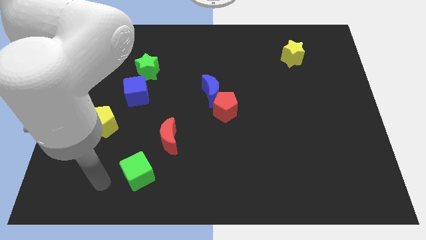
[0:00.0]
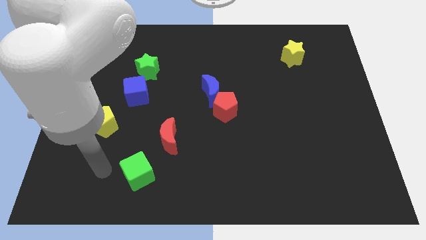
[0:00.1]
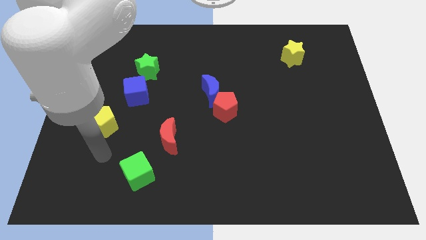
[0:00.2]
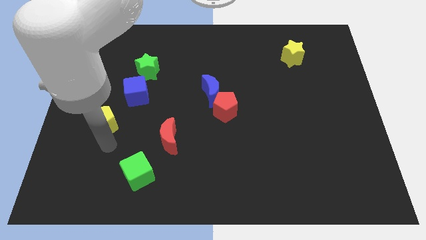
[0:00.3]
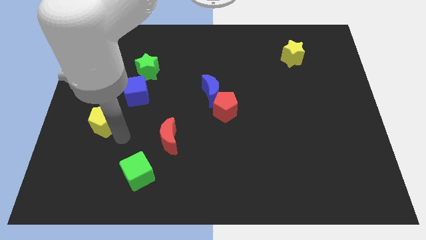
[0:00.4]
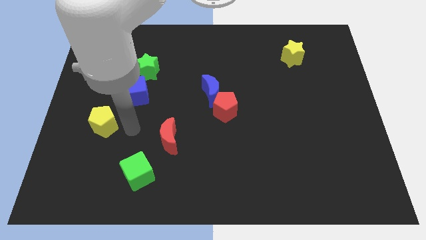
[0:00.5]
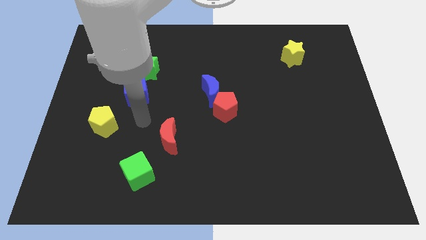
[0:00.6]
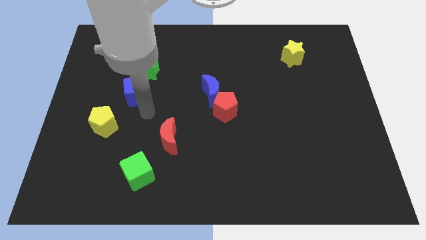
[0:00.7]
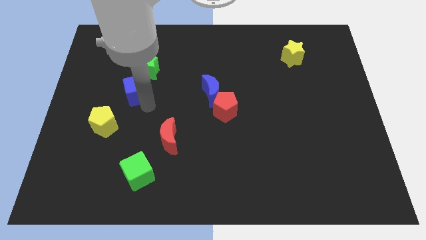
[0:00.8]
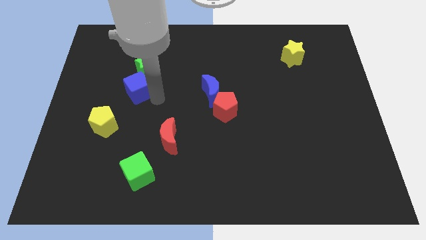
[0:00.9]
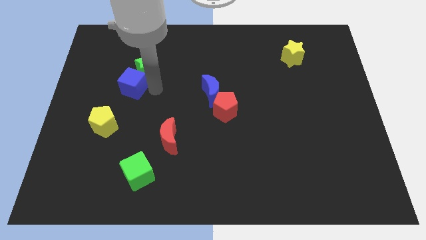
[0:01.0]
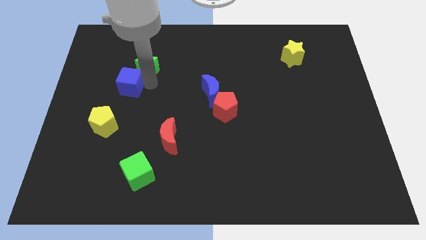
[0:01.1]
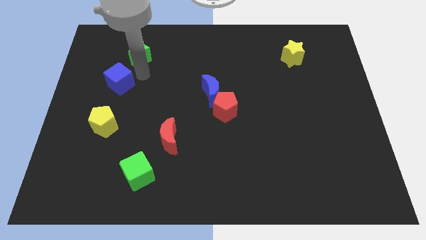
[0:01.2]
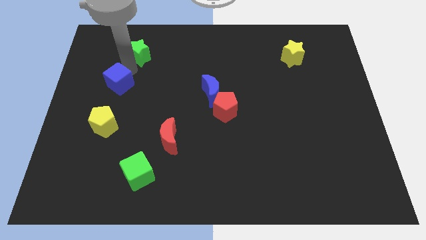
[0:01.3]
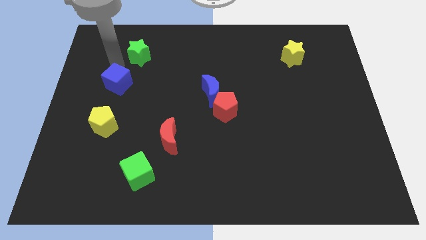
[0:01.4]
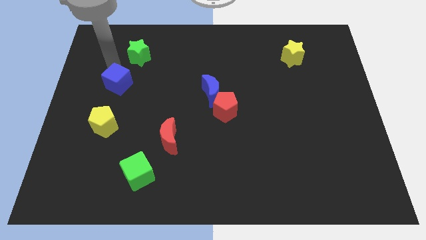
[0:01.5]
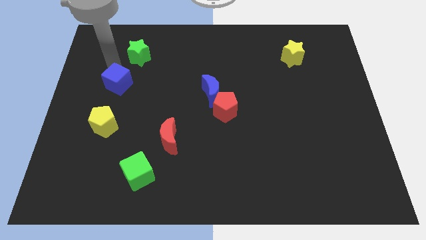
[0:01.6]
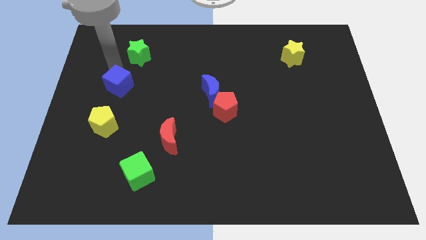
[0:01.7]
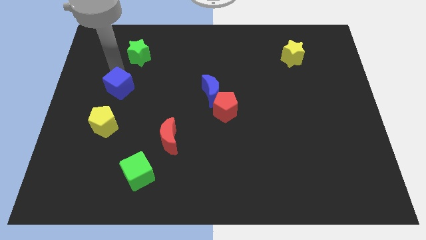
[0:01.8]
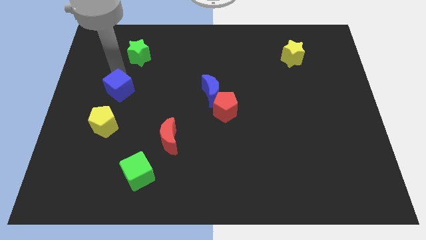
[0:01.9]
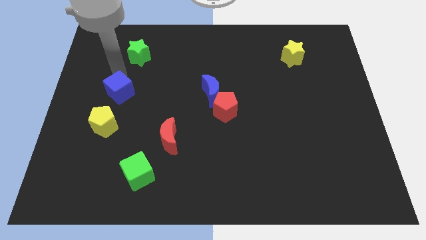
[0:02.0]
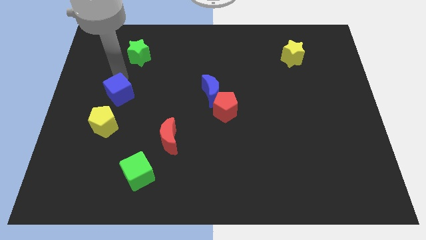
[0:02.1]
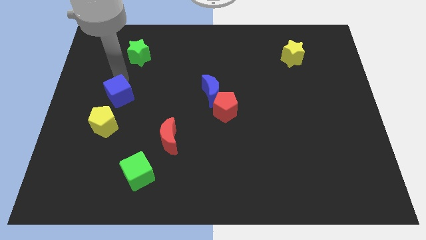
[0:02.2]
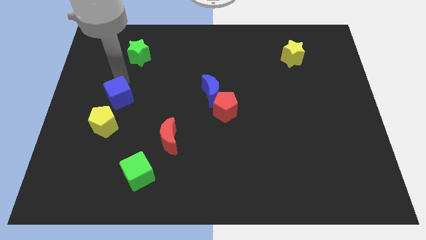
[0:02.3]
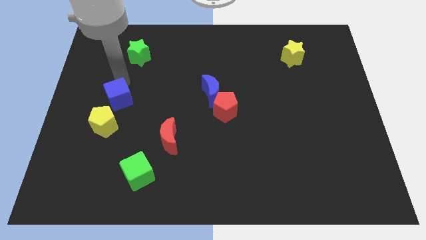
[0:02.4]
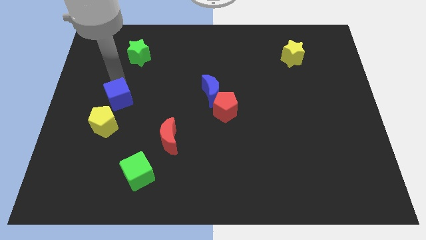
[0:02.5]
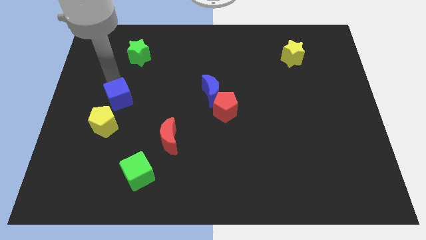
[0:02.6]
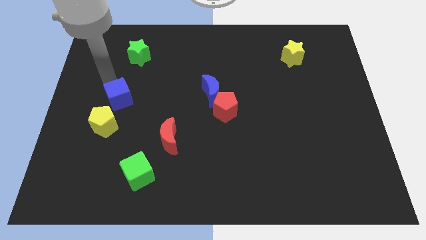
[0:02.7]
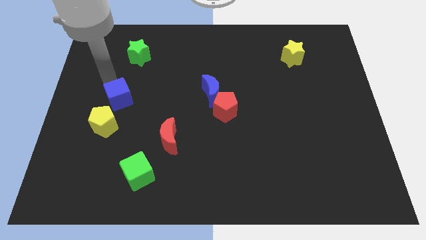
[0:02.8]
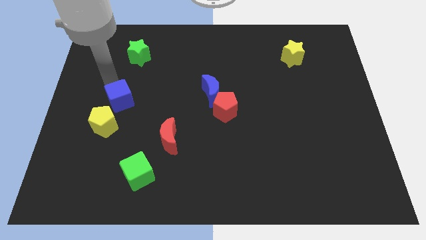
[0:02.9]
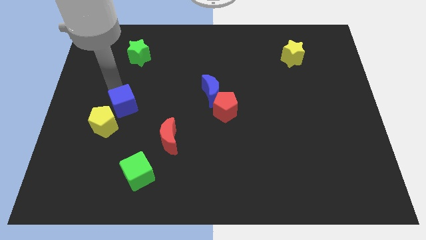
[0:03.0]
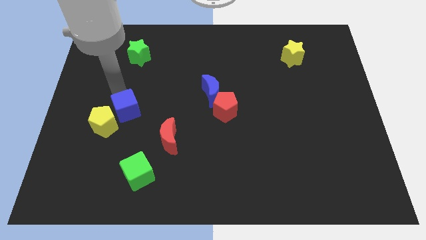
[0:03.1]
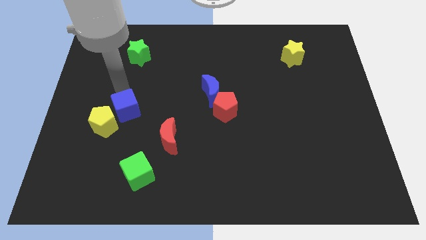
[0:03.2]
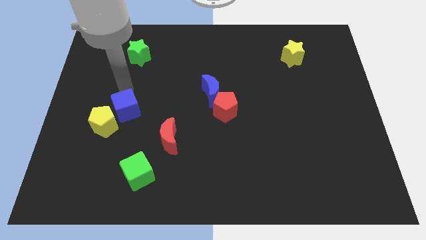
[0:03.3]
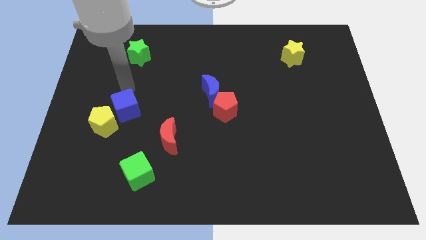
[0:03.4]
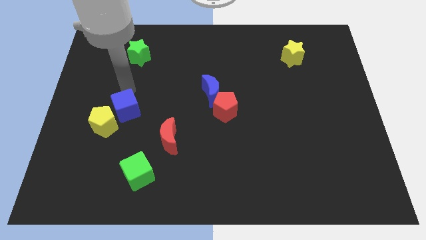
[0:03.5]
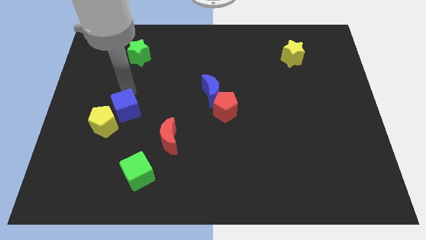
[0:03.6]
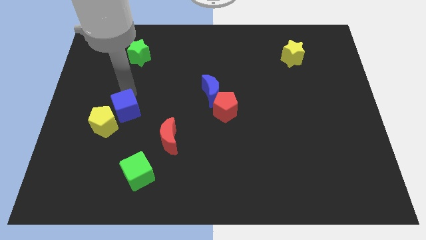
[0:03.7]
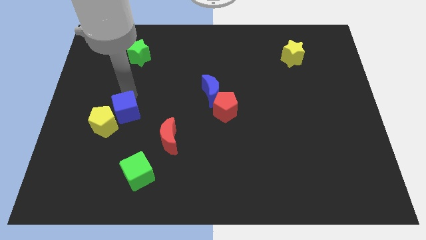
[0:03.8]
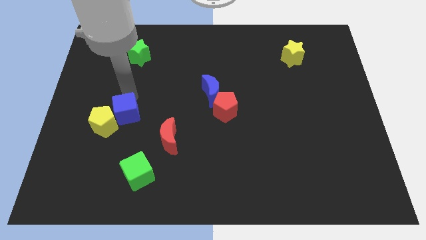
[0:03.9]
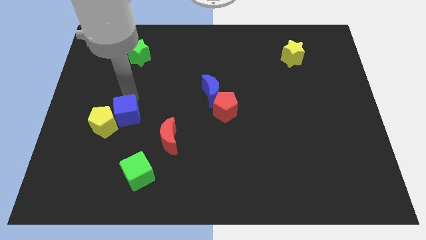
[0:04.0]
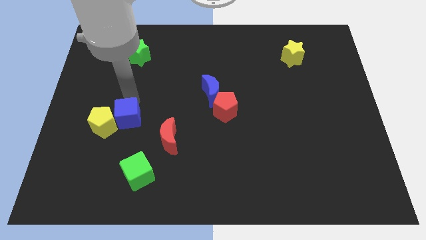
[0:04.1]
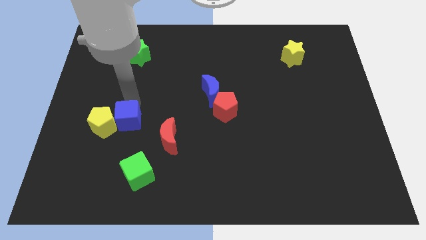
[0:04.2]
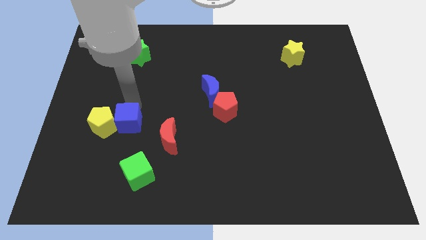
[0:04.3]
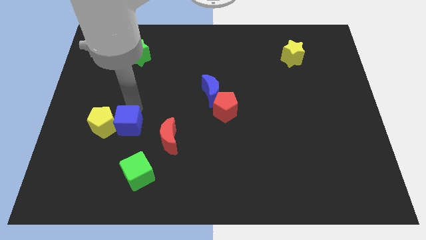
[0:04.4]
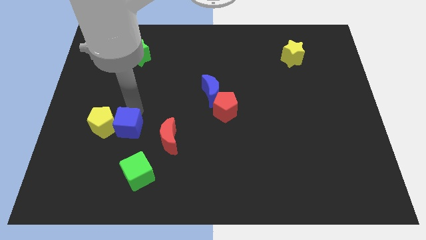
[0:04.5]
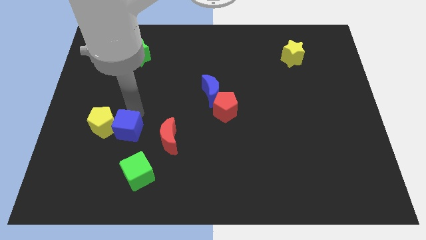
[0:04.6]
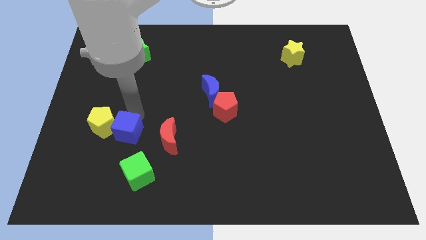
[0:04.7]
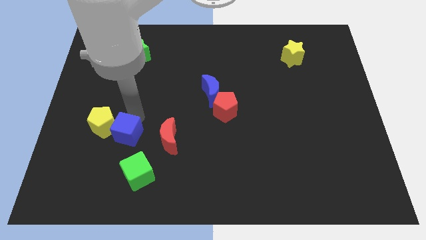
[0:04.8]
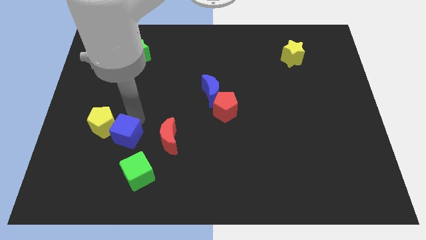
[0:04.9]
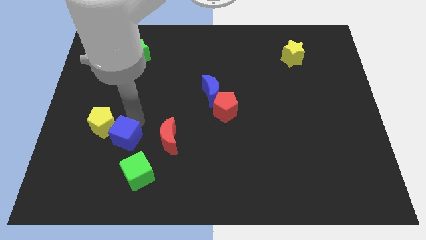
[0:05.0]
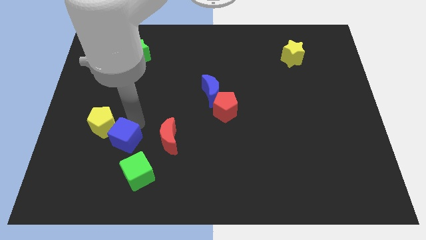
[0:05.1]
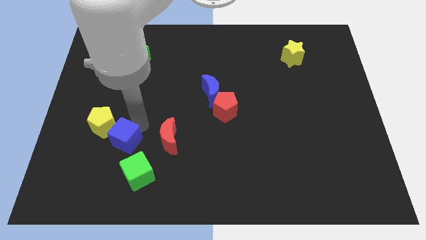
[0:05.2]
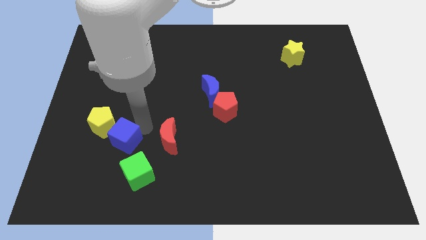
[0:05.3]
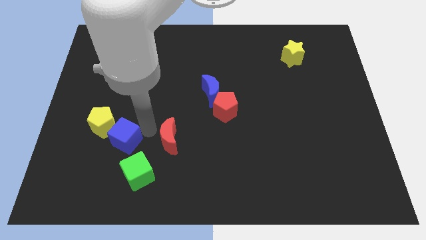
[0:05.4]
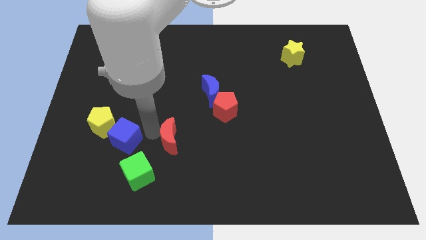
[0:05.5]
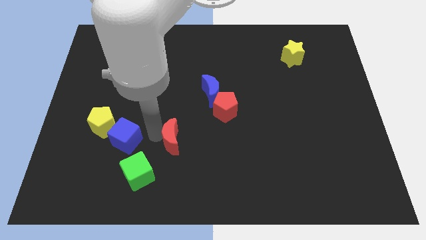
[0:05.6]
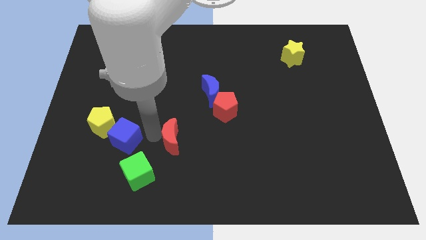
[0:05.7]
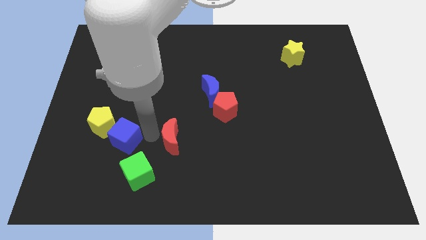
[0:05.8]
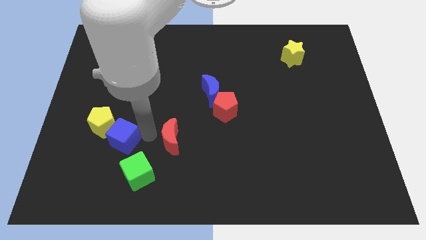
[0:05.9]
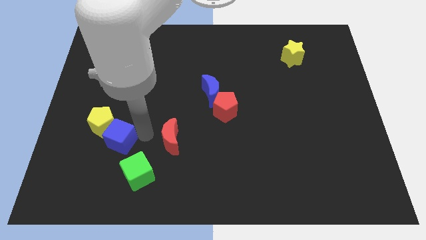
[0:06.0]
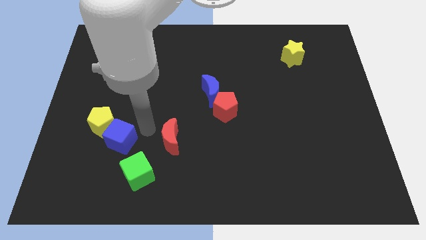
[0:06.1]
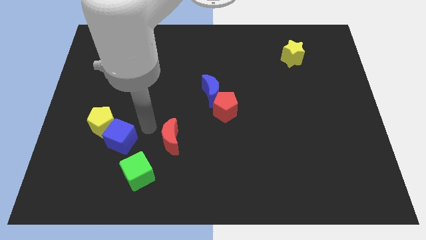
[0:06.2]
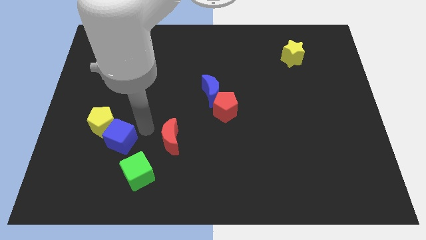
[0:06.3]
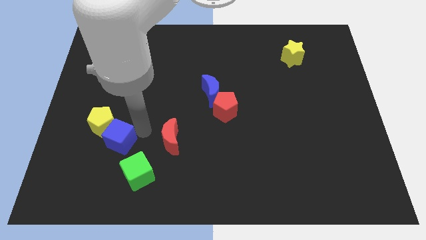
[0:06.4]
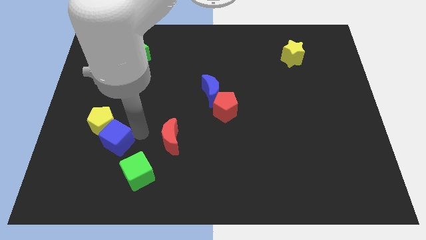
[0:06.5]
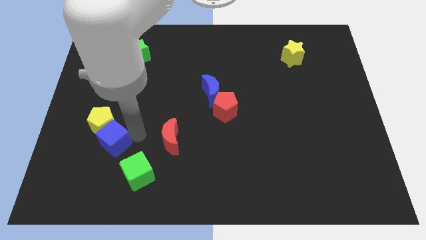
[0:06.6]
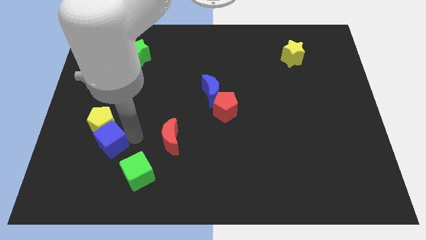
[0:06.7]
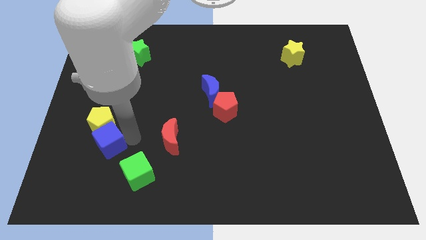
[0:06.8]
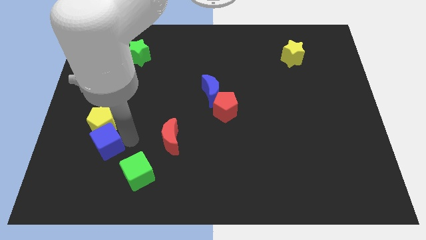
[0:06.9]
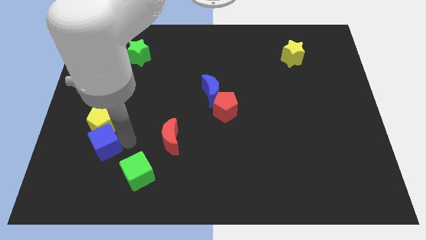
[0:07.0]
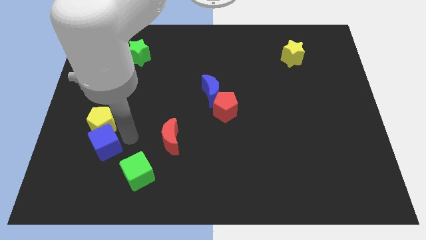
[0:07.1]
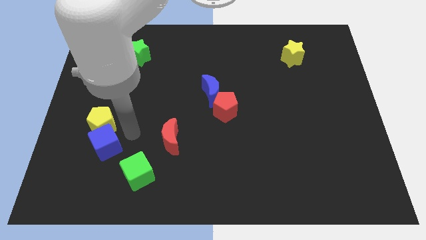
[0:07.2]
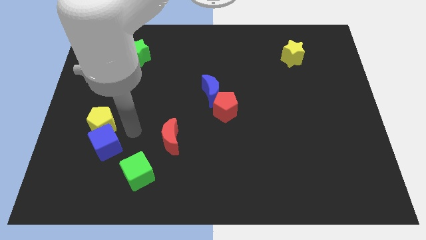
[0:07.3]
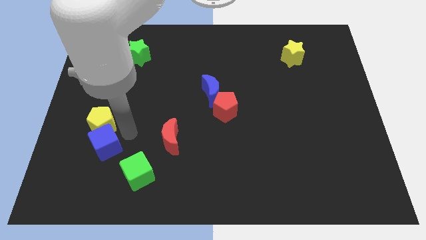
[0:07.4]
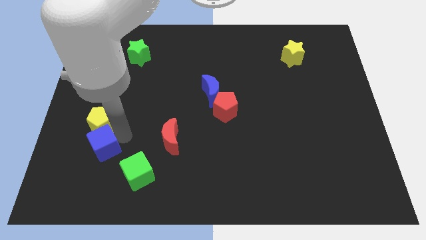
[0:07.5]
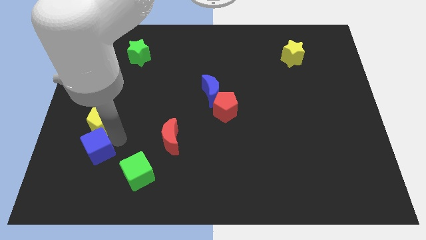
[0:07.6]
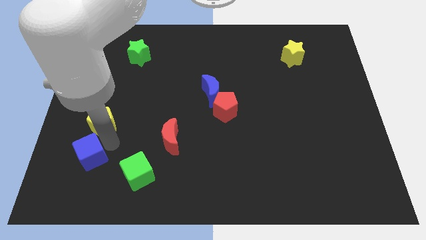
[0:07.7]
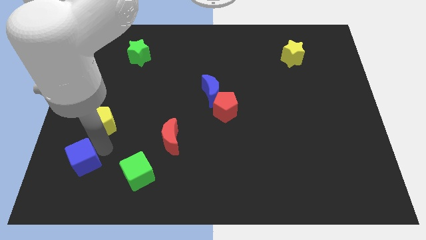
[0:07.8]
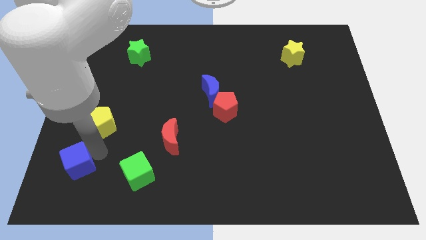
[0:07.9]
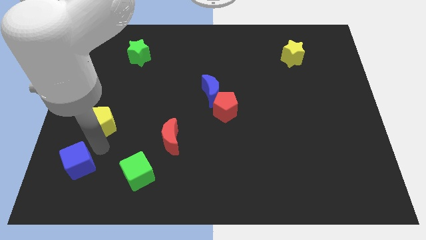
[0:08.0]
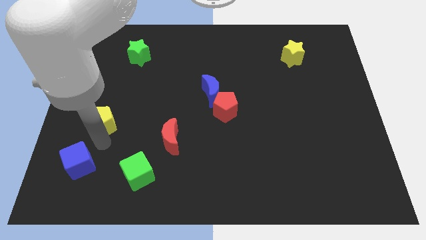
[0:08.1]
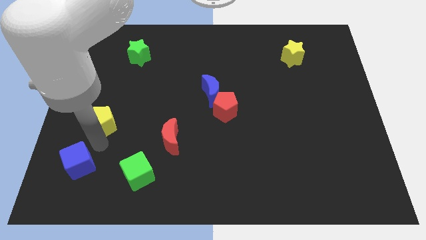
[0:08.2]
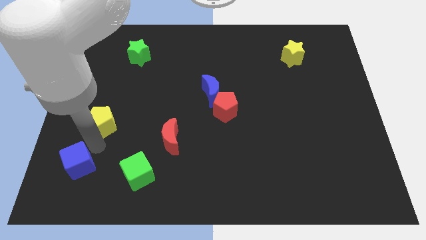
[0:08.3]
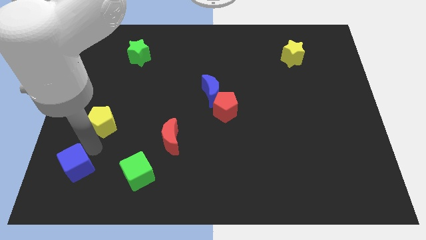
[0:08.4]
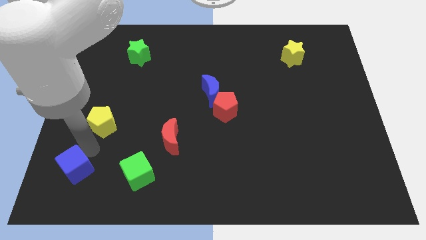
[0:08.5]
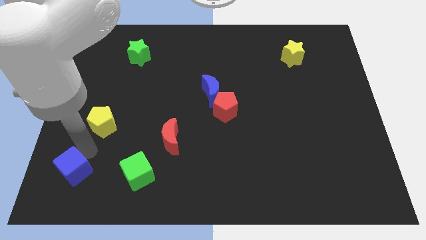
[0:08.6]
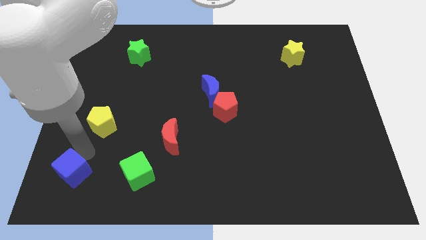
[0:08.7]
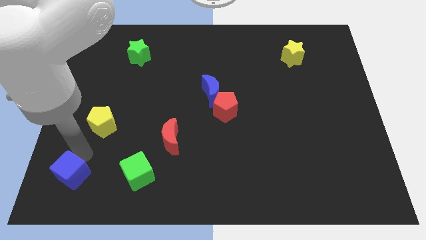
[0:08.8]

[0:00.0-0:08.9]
push the blue cube to the bottom left
